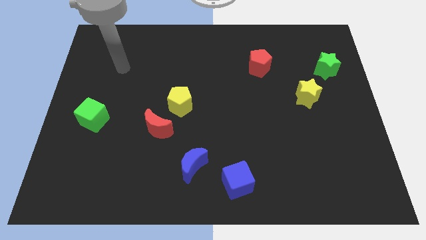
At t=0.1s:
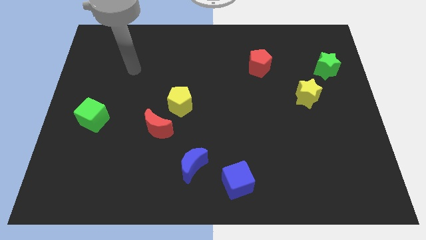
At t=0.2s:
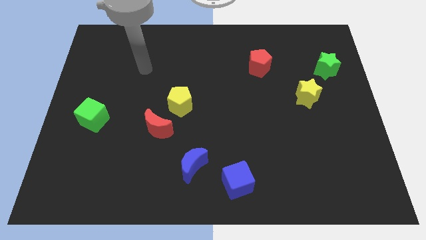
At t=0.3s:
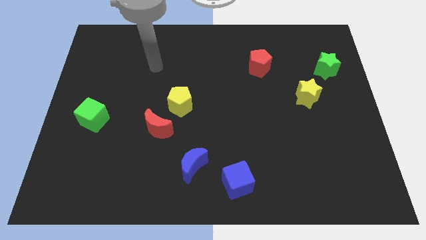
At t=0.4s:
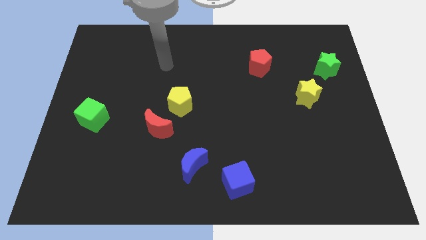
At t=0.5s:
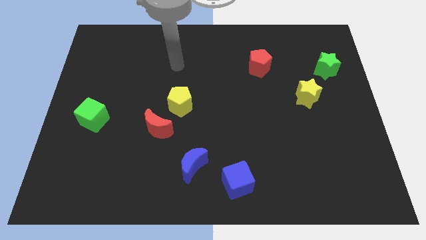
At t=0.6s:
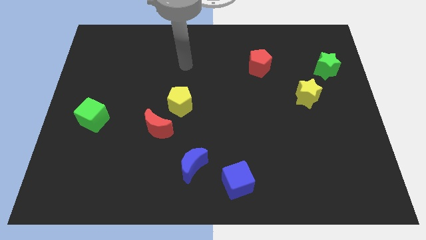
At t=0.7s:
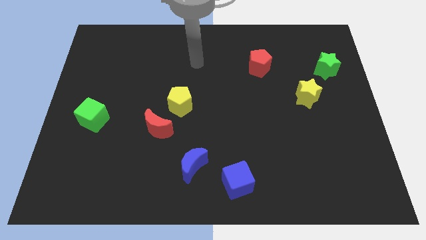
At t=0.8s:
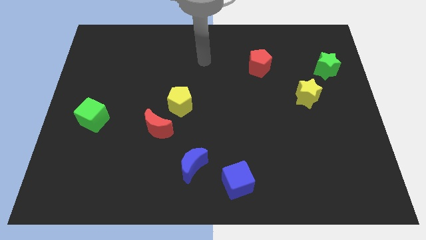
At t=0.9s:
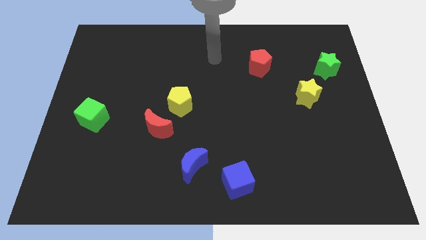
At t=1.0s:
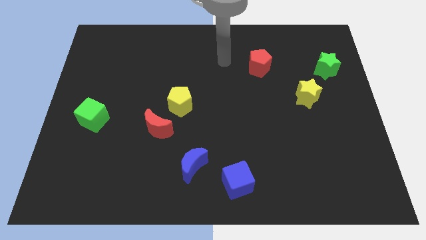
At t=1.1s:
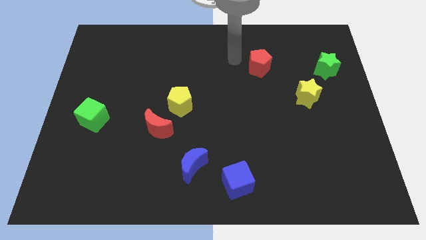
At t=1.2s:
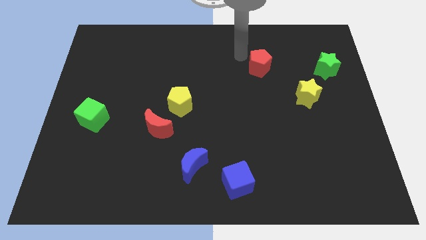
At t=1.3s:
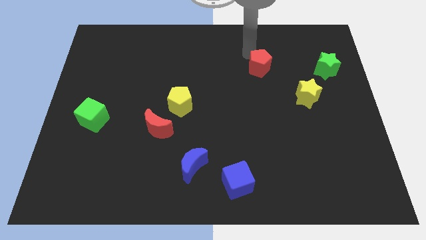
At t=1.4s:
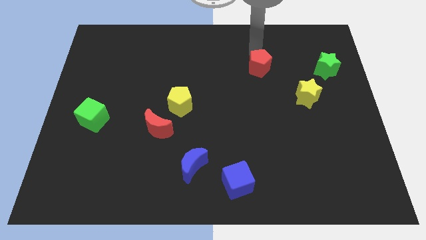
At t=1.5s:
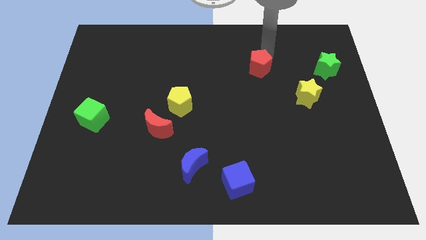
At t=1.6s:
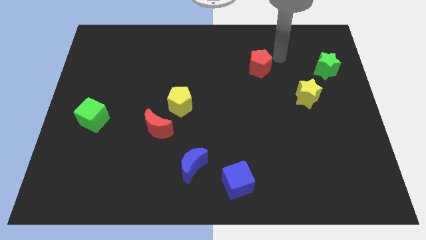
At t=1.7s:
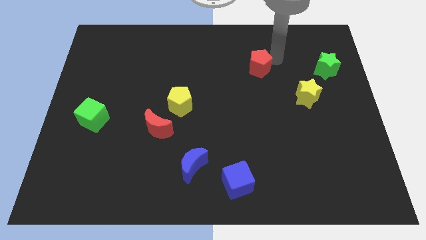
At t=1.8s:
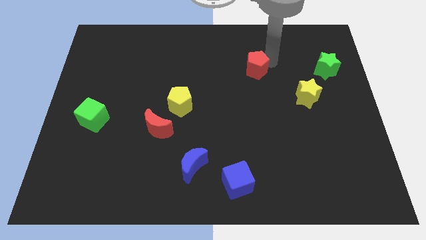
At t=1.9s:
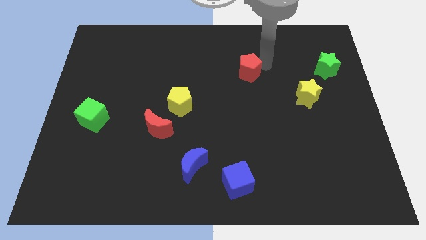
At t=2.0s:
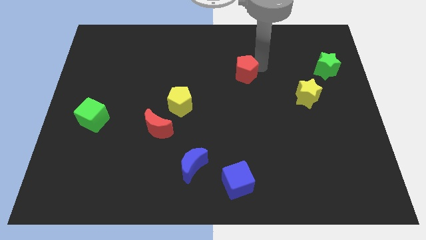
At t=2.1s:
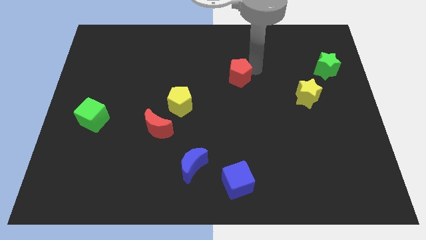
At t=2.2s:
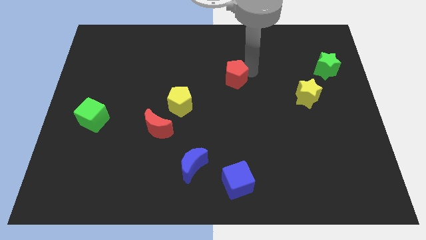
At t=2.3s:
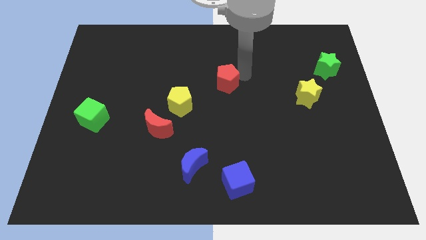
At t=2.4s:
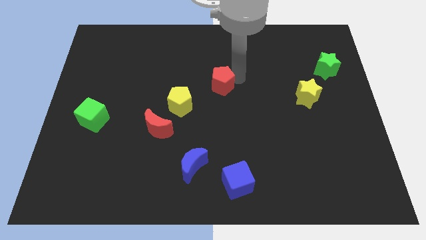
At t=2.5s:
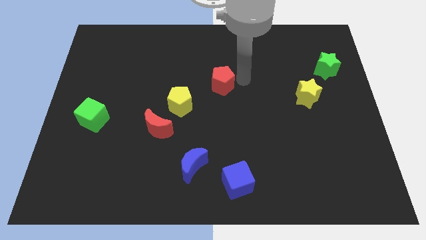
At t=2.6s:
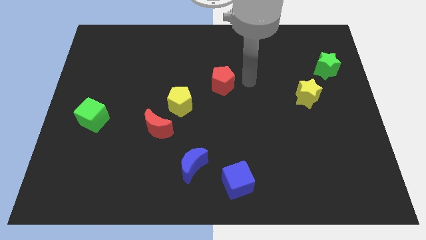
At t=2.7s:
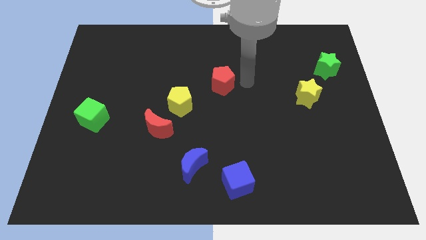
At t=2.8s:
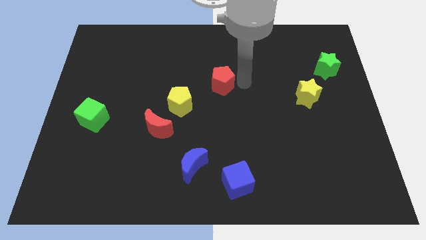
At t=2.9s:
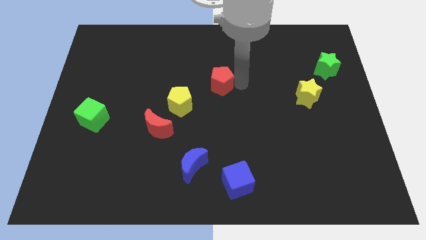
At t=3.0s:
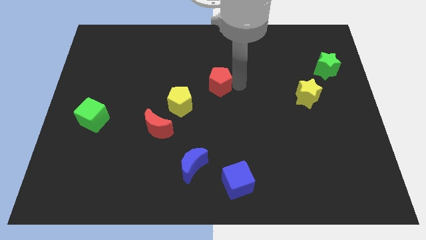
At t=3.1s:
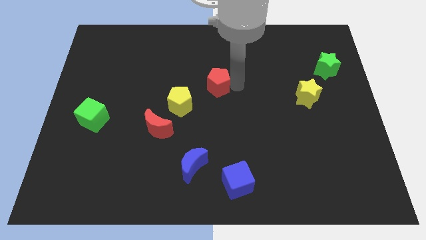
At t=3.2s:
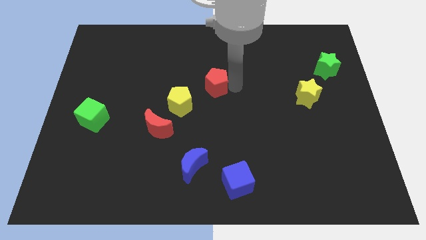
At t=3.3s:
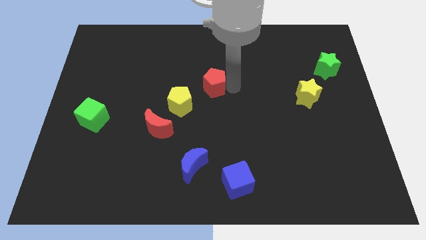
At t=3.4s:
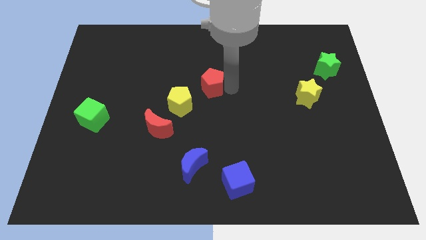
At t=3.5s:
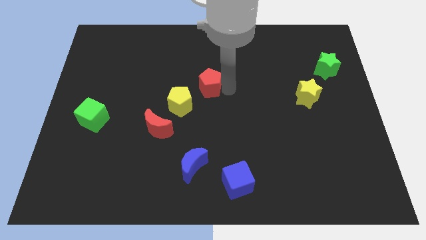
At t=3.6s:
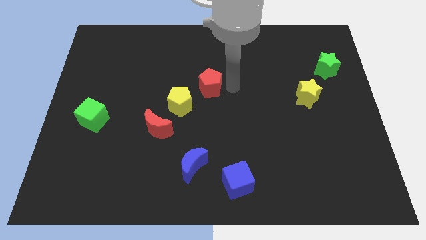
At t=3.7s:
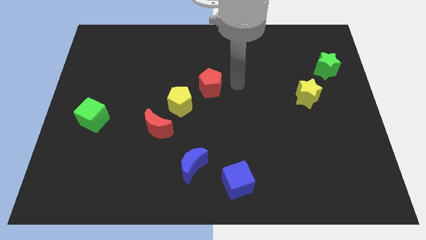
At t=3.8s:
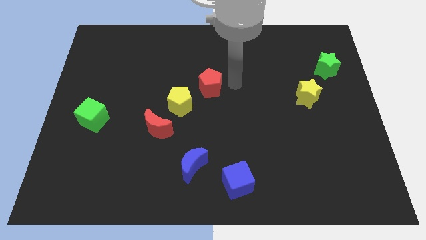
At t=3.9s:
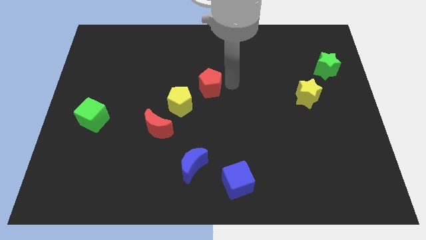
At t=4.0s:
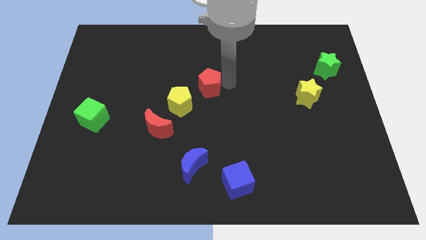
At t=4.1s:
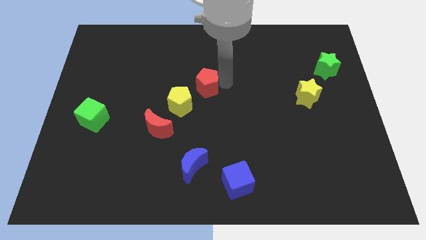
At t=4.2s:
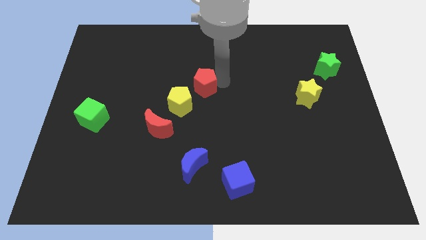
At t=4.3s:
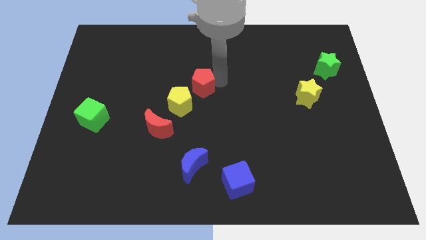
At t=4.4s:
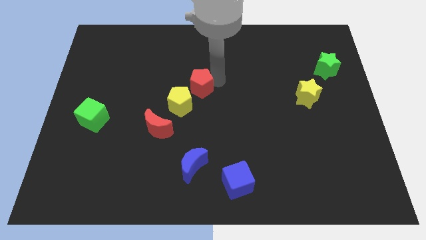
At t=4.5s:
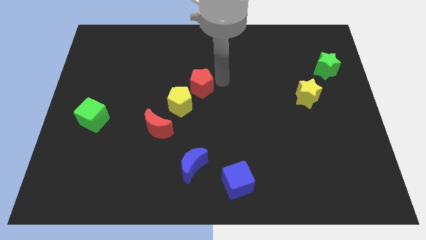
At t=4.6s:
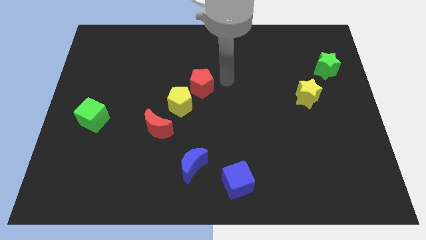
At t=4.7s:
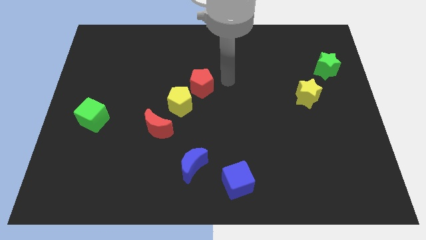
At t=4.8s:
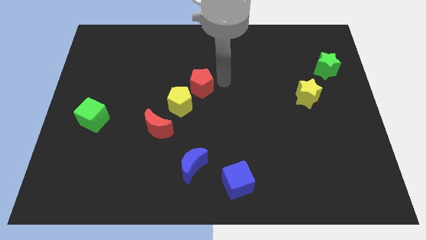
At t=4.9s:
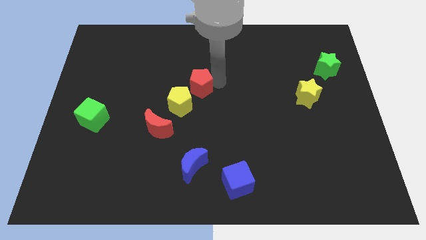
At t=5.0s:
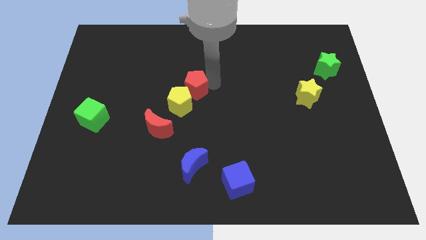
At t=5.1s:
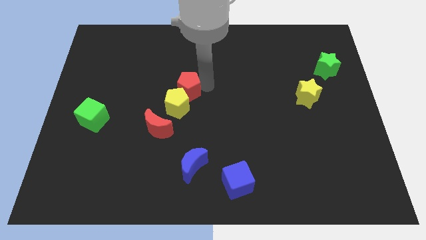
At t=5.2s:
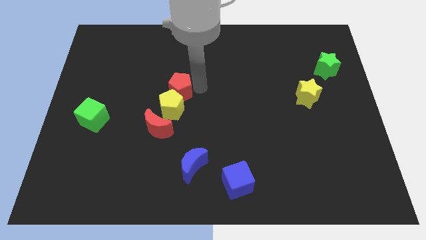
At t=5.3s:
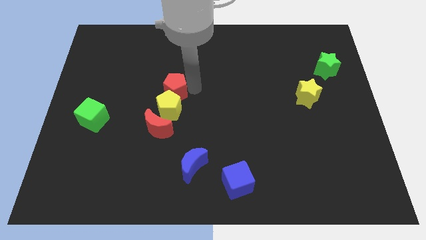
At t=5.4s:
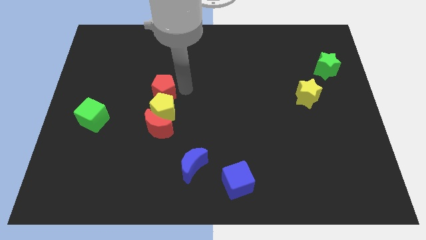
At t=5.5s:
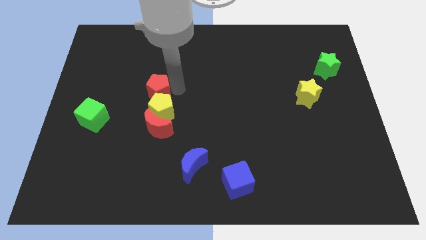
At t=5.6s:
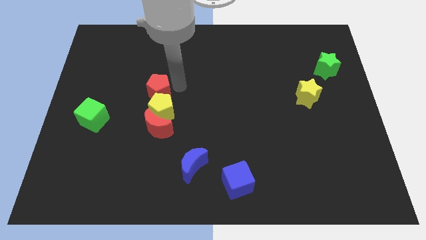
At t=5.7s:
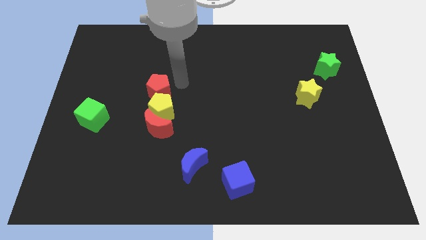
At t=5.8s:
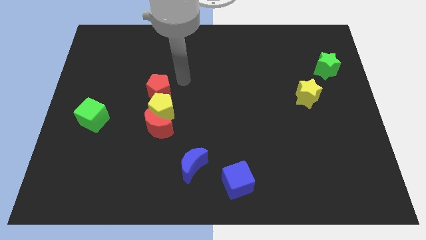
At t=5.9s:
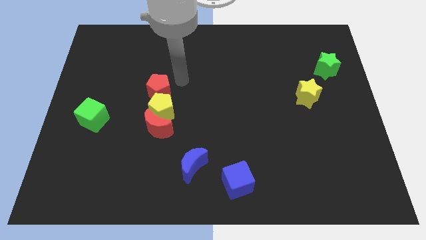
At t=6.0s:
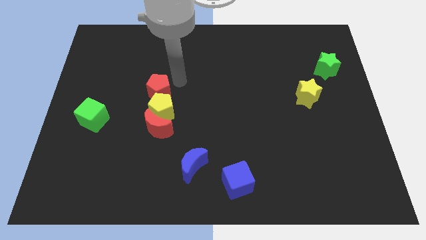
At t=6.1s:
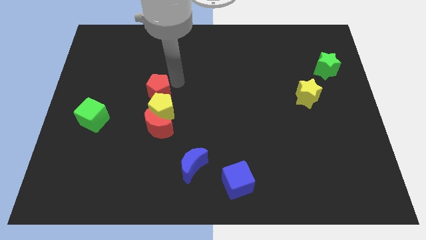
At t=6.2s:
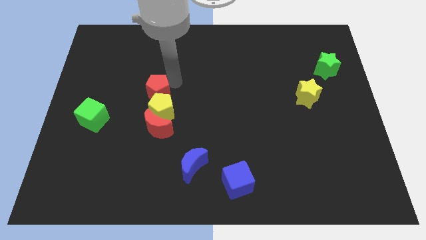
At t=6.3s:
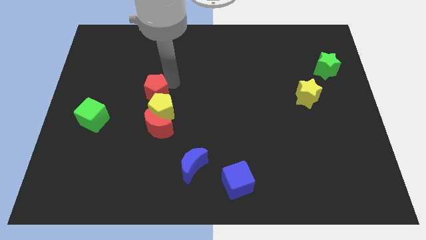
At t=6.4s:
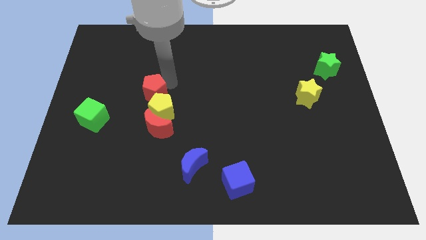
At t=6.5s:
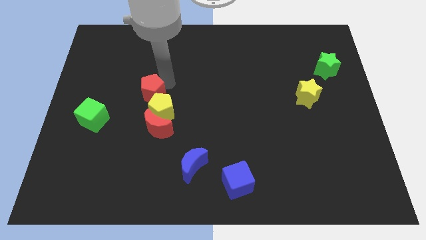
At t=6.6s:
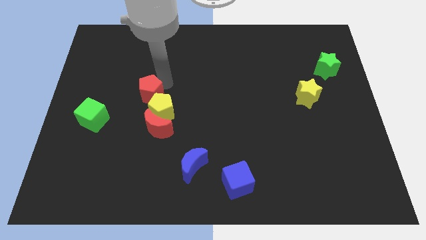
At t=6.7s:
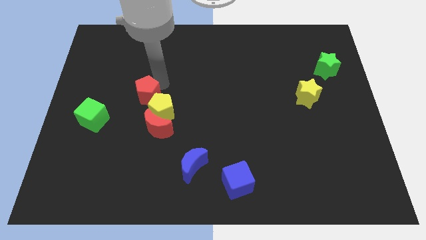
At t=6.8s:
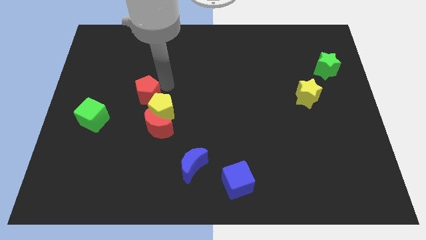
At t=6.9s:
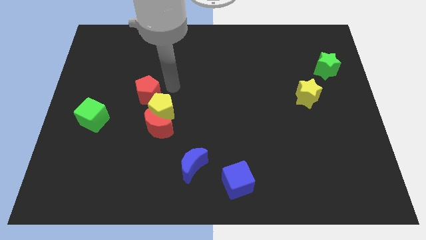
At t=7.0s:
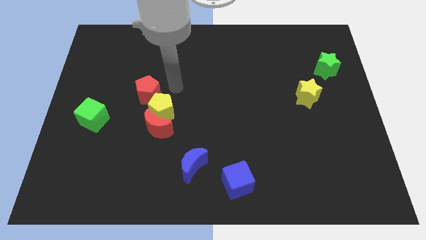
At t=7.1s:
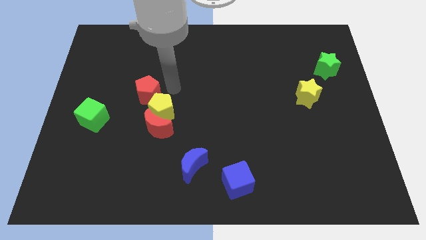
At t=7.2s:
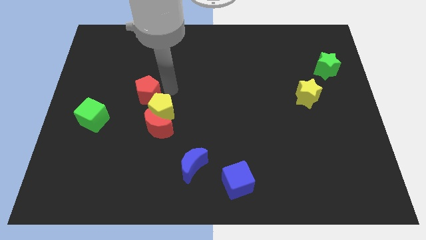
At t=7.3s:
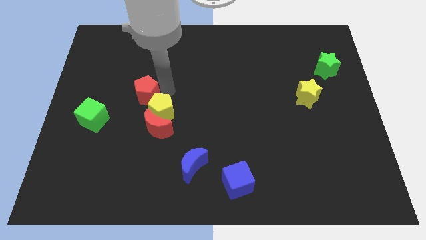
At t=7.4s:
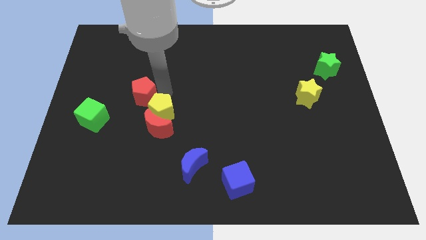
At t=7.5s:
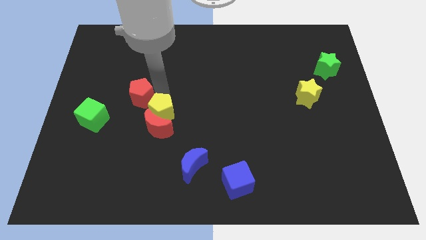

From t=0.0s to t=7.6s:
slide the red pentagon to the top right side of the green cube

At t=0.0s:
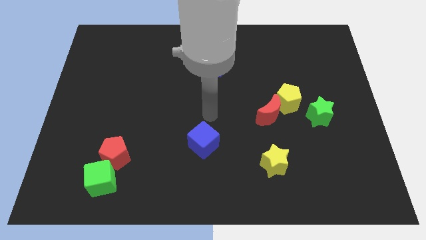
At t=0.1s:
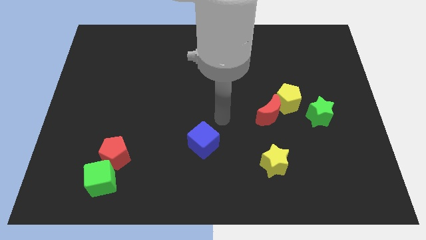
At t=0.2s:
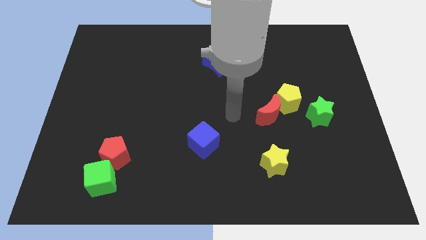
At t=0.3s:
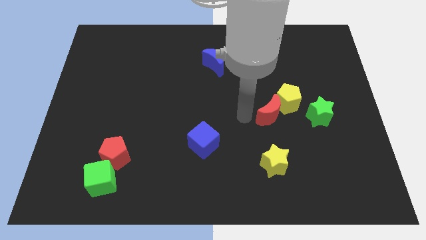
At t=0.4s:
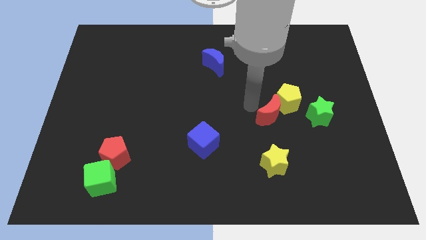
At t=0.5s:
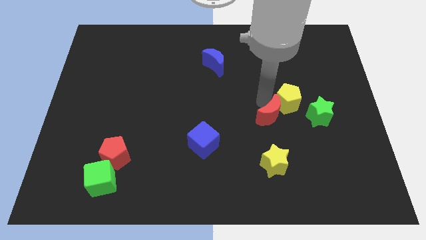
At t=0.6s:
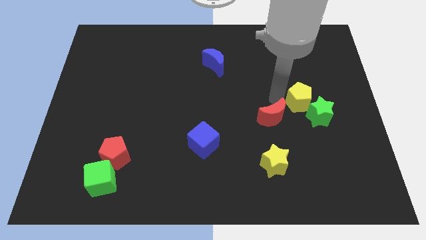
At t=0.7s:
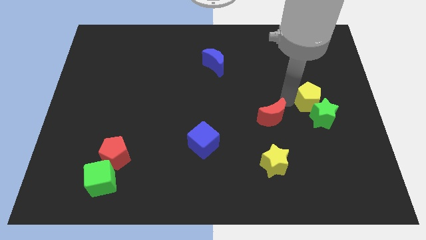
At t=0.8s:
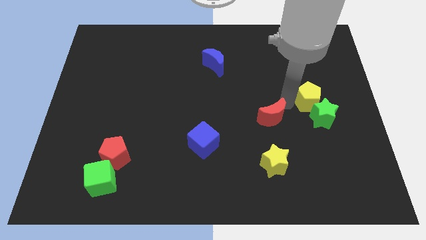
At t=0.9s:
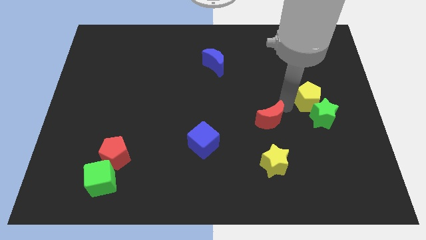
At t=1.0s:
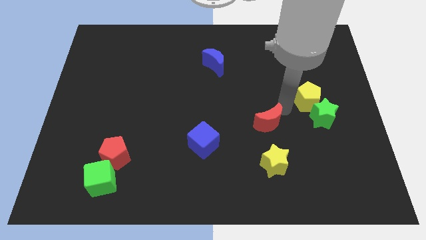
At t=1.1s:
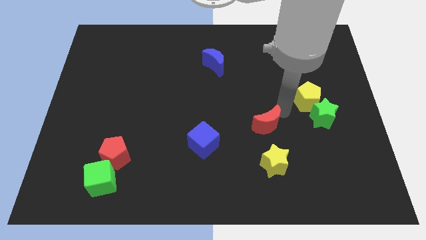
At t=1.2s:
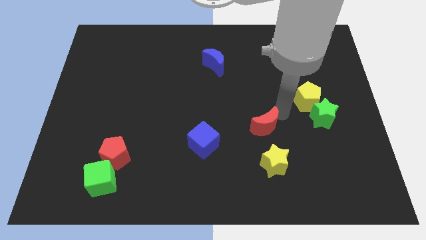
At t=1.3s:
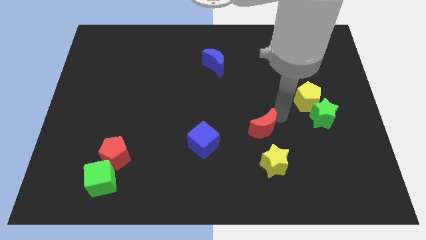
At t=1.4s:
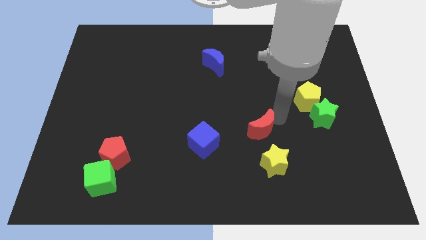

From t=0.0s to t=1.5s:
slide the red moon diagonally up and to the left of the yellow star
